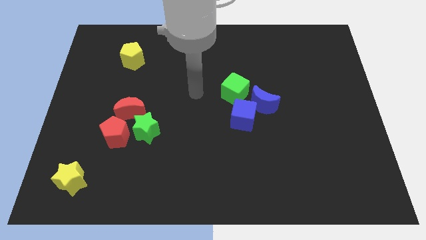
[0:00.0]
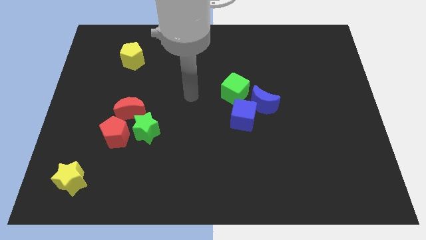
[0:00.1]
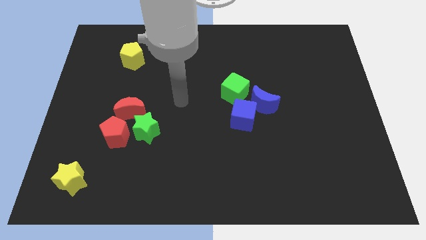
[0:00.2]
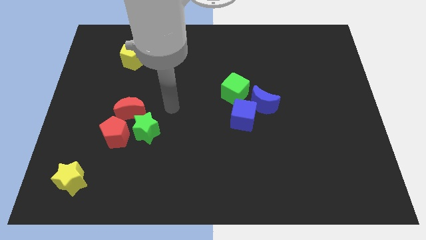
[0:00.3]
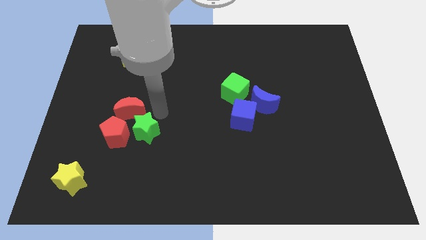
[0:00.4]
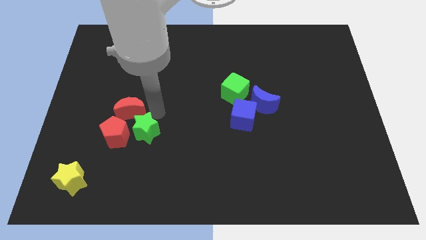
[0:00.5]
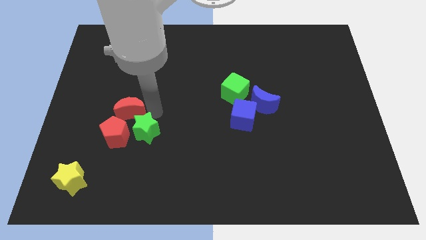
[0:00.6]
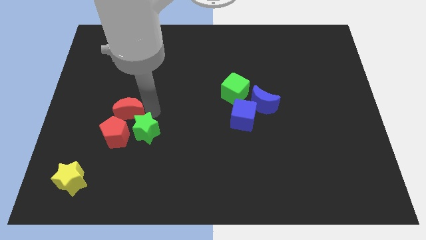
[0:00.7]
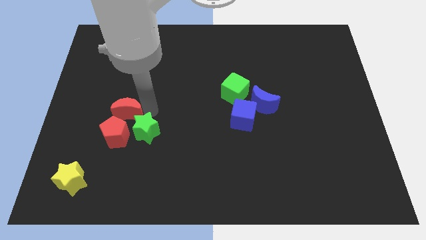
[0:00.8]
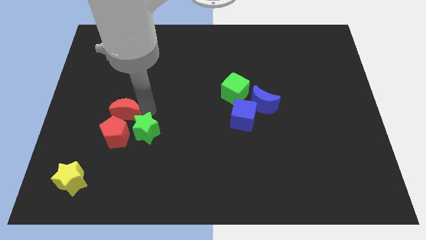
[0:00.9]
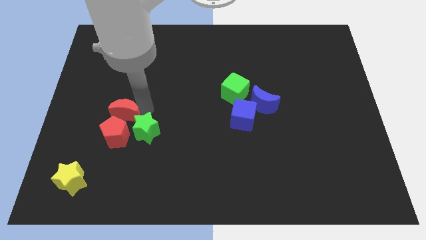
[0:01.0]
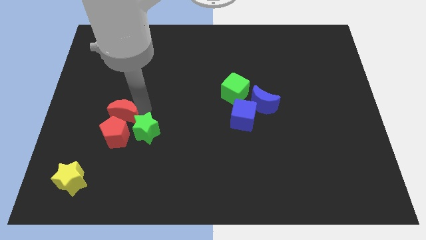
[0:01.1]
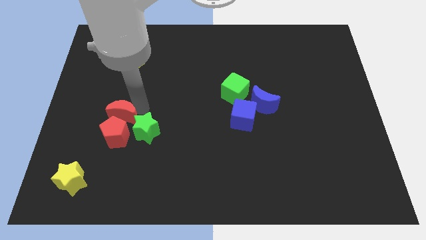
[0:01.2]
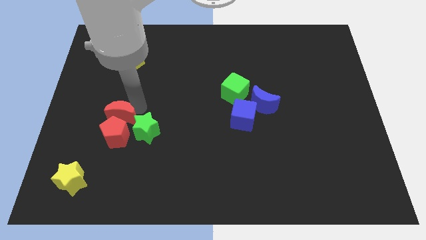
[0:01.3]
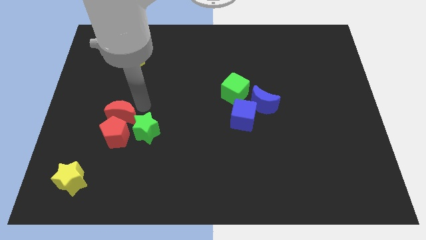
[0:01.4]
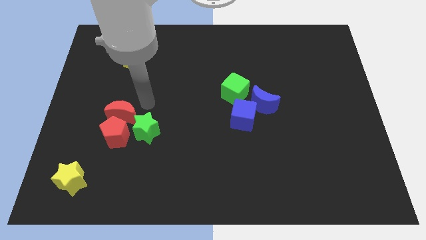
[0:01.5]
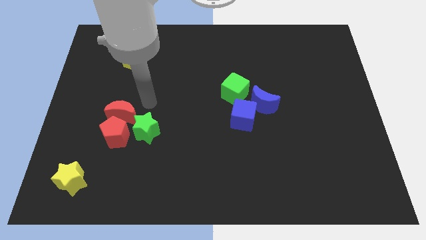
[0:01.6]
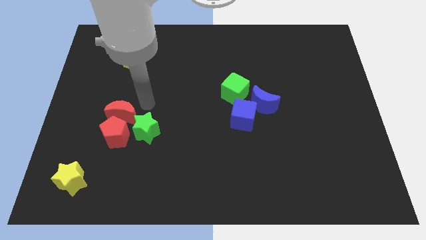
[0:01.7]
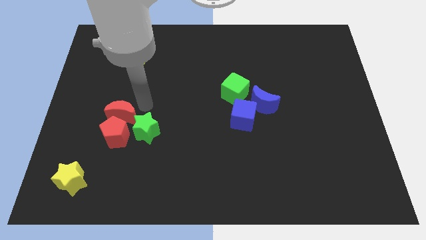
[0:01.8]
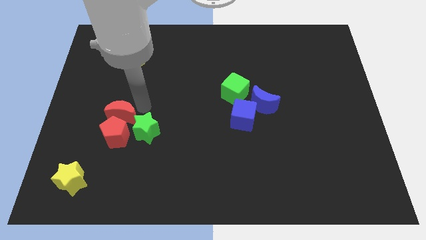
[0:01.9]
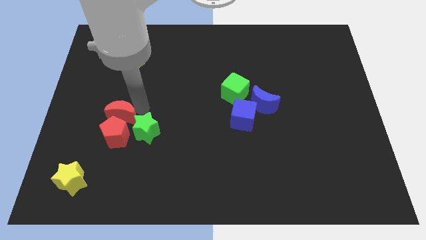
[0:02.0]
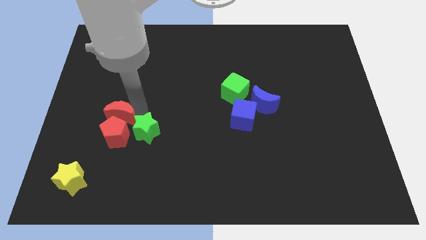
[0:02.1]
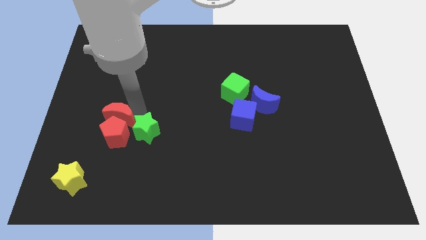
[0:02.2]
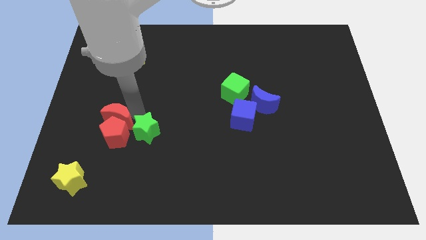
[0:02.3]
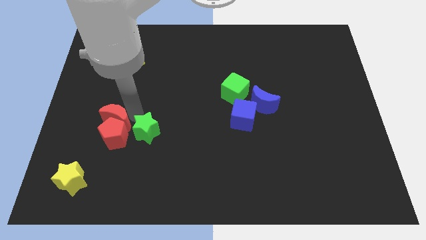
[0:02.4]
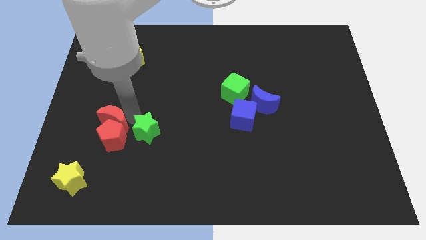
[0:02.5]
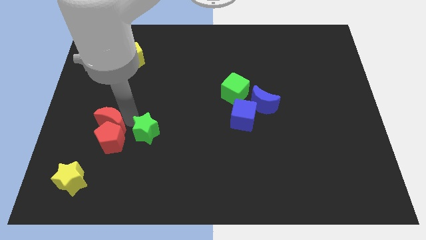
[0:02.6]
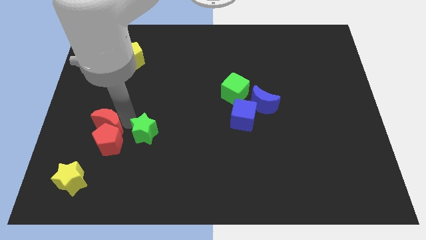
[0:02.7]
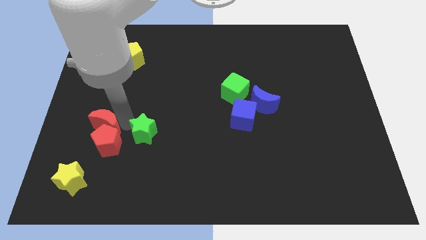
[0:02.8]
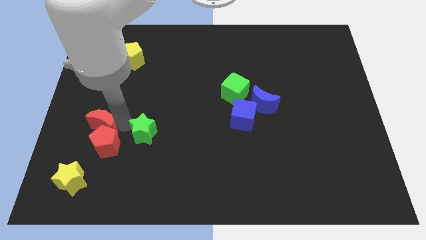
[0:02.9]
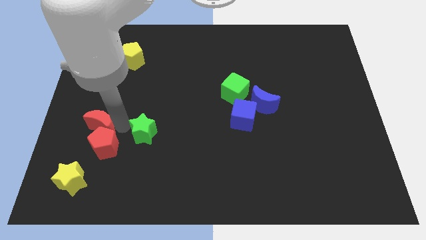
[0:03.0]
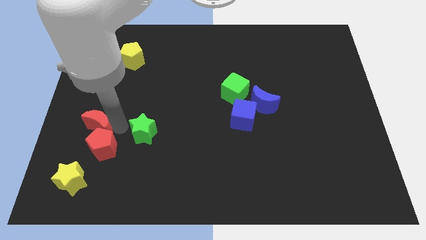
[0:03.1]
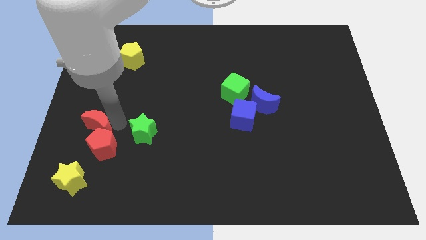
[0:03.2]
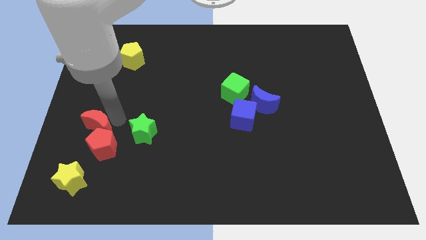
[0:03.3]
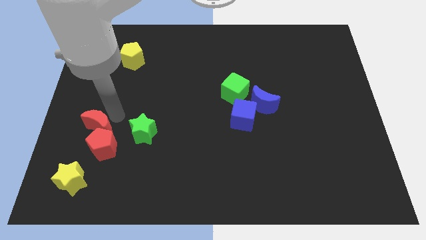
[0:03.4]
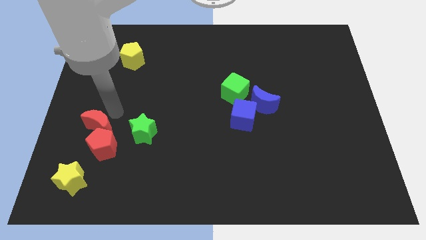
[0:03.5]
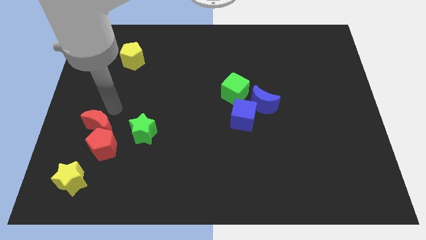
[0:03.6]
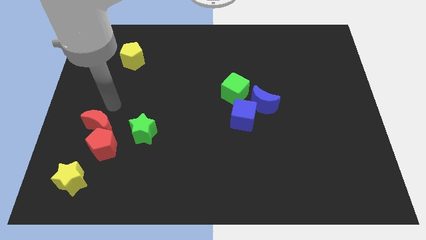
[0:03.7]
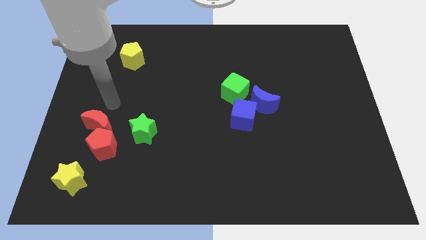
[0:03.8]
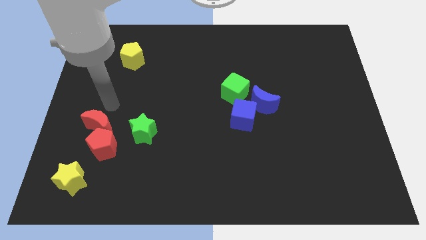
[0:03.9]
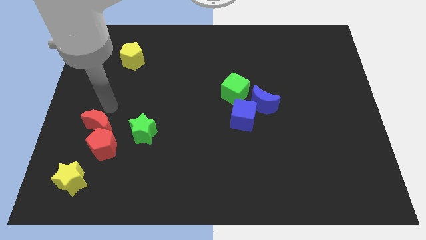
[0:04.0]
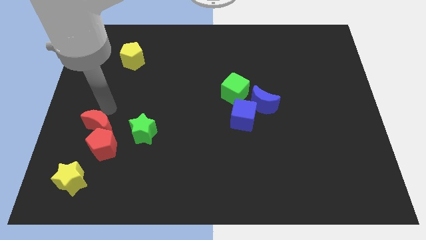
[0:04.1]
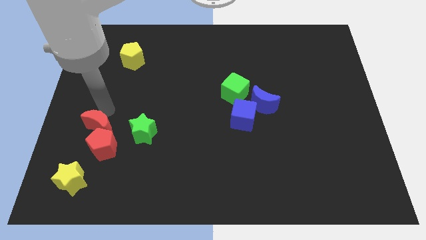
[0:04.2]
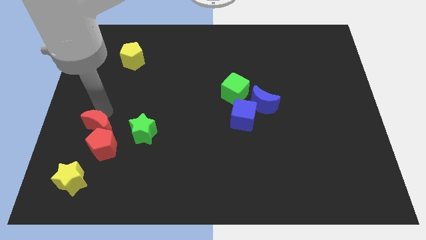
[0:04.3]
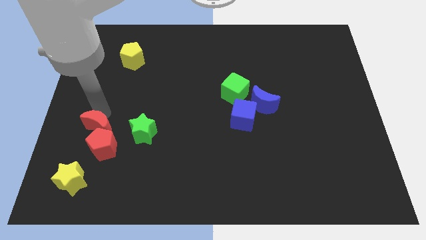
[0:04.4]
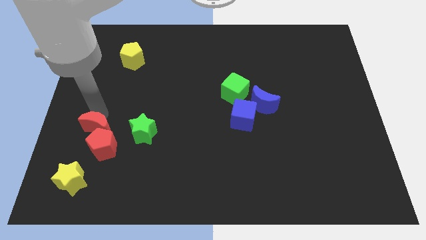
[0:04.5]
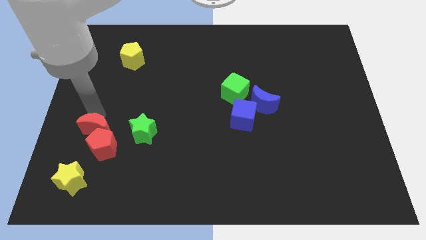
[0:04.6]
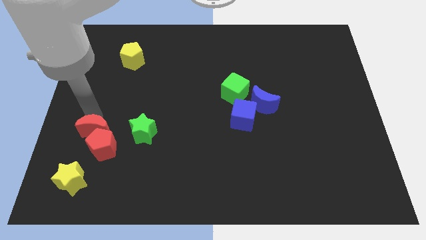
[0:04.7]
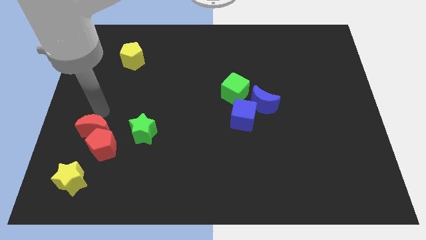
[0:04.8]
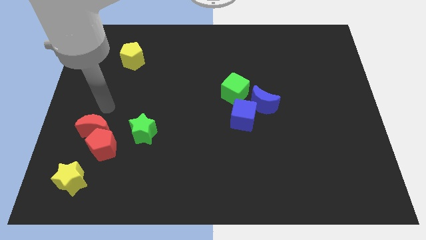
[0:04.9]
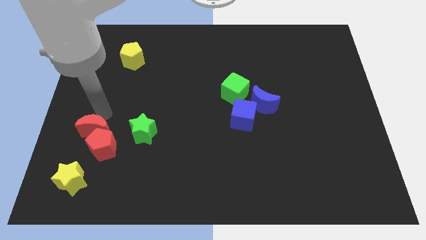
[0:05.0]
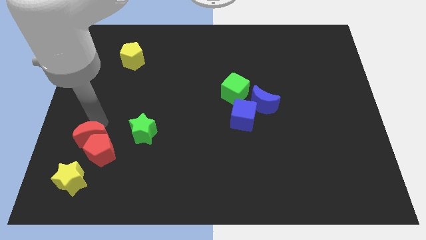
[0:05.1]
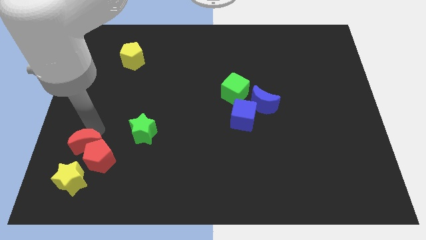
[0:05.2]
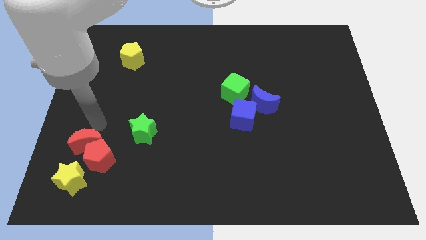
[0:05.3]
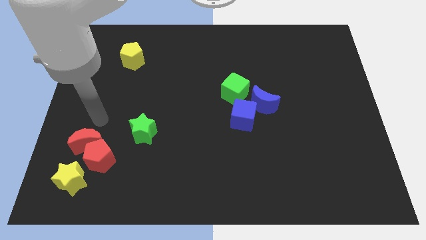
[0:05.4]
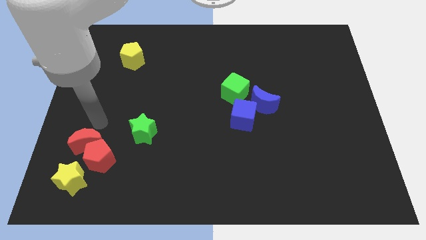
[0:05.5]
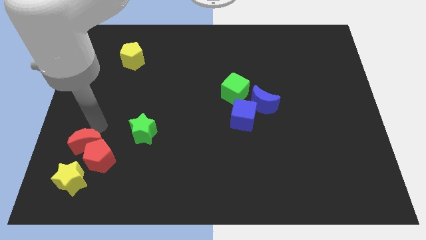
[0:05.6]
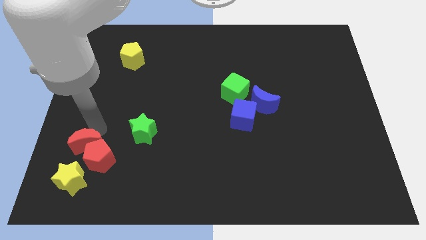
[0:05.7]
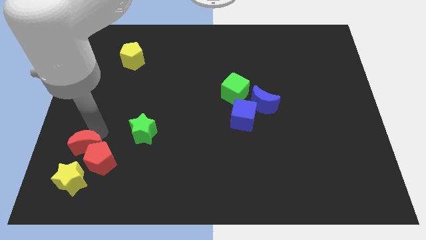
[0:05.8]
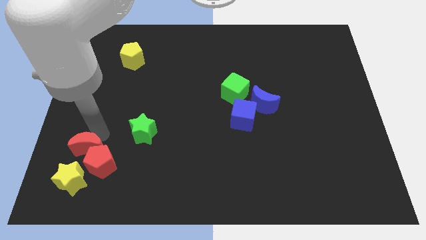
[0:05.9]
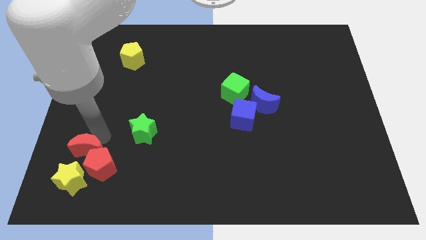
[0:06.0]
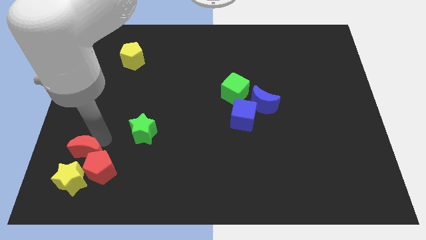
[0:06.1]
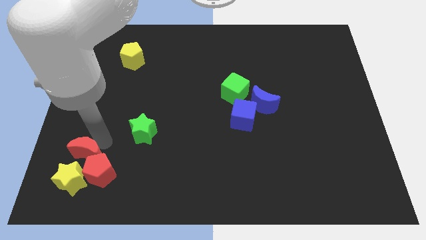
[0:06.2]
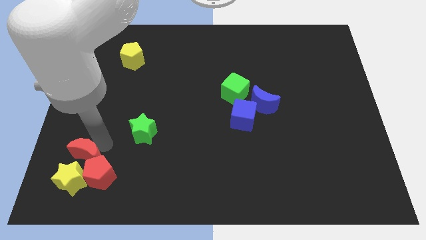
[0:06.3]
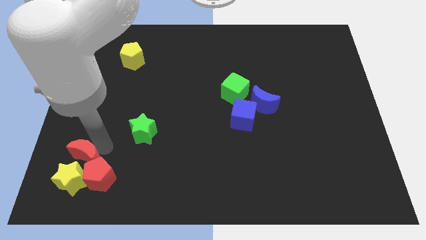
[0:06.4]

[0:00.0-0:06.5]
move the red moon next to the yellow star
